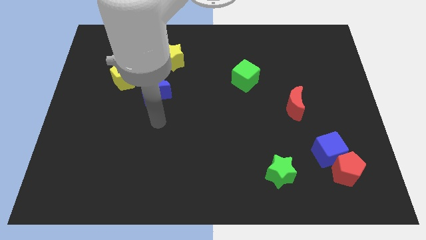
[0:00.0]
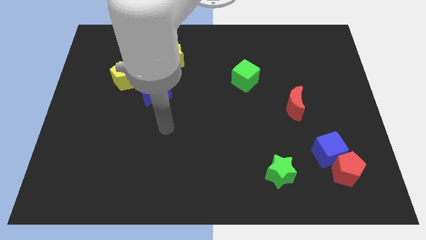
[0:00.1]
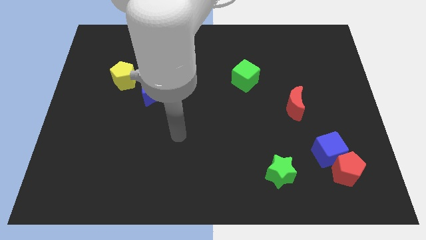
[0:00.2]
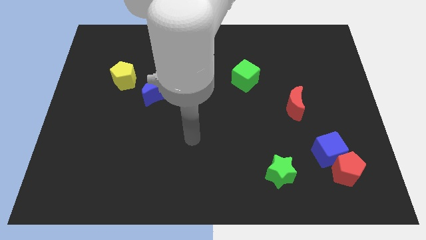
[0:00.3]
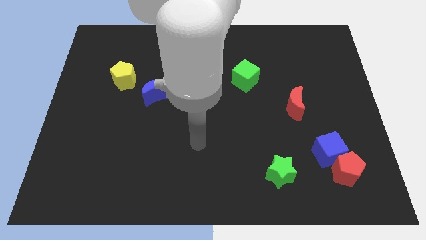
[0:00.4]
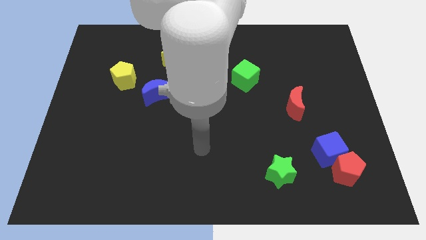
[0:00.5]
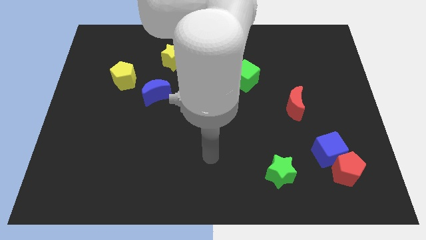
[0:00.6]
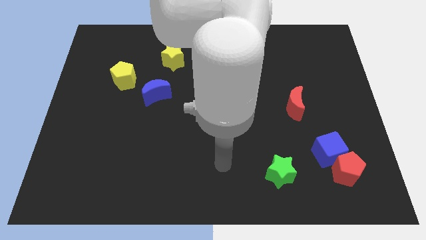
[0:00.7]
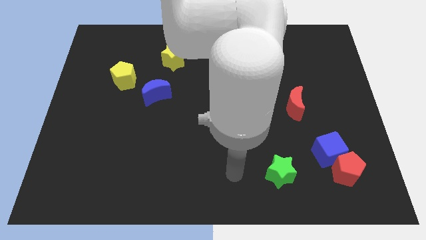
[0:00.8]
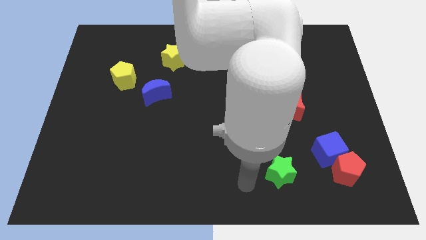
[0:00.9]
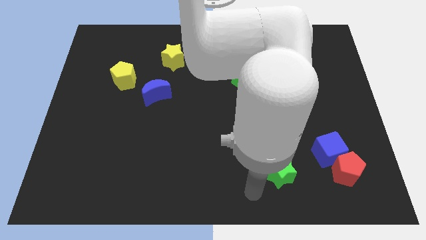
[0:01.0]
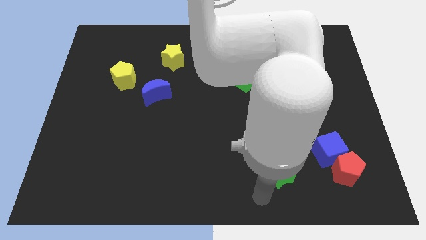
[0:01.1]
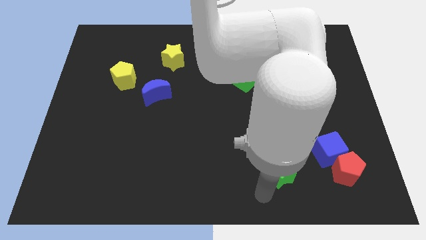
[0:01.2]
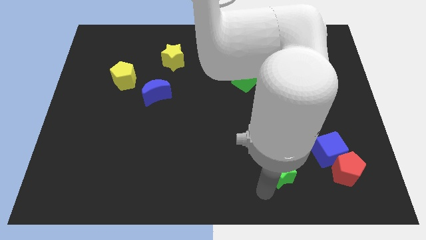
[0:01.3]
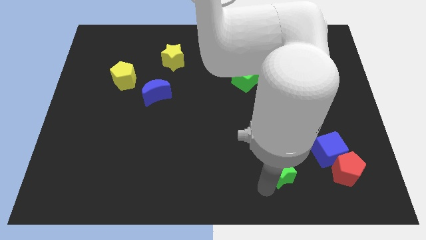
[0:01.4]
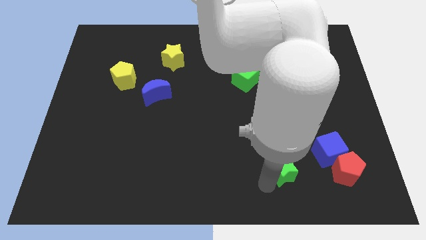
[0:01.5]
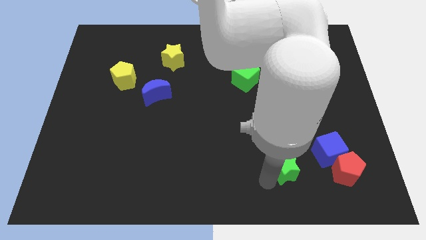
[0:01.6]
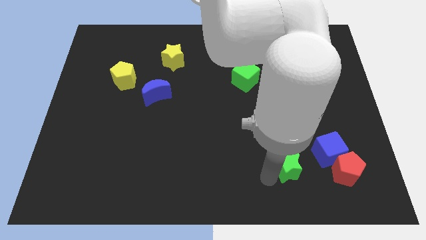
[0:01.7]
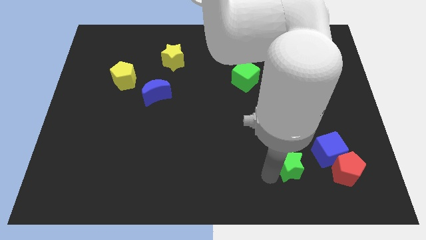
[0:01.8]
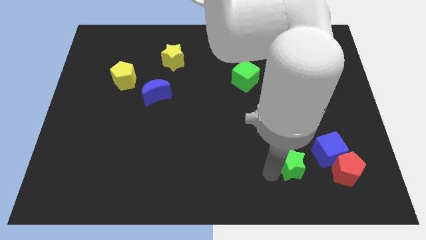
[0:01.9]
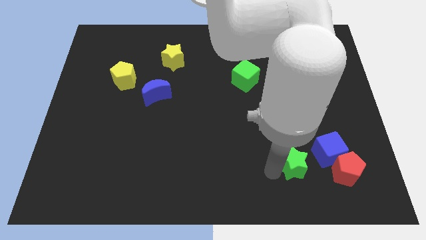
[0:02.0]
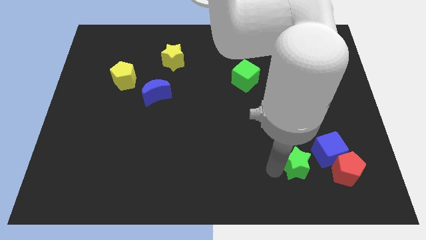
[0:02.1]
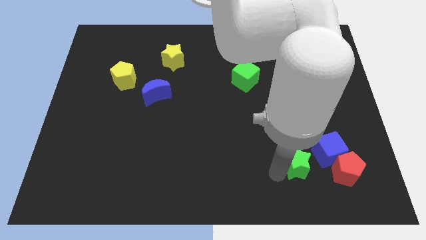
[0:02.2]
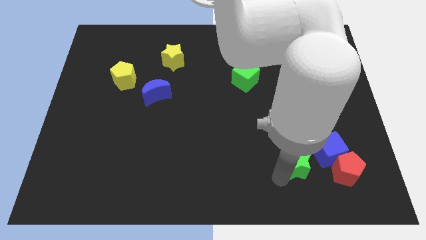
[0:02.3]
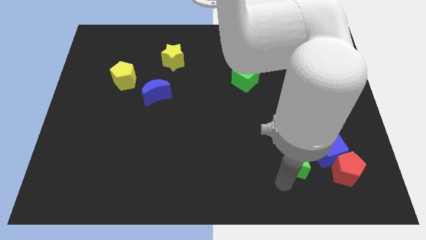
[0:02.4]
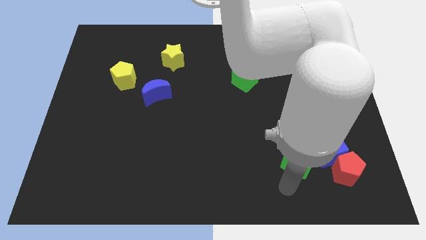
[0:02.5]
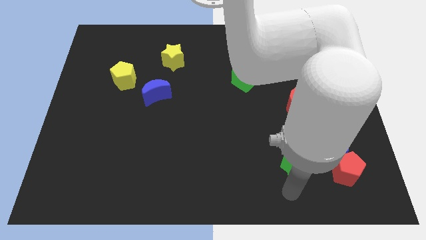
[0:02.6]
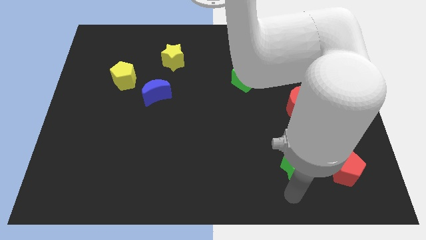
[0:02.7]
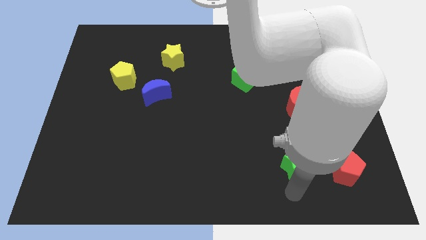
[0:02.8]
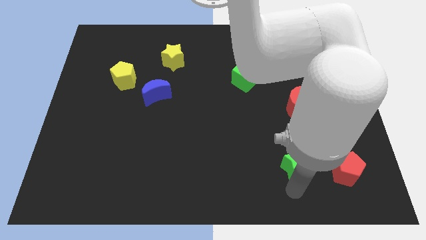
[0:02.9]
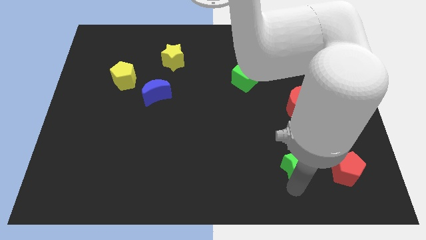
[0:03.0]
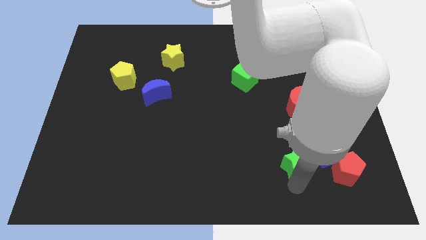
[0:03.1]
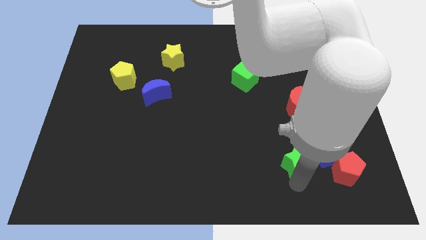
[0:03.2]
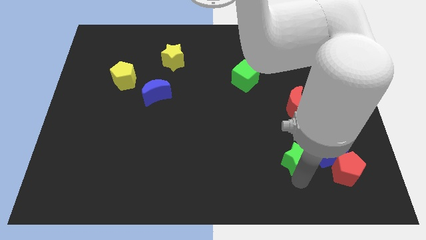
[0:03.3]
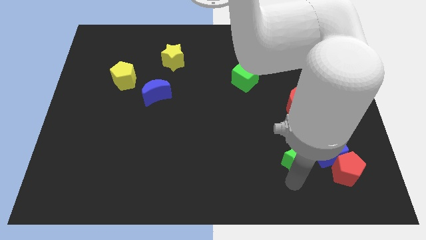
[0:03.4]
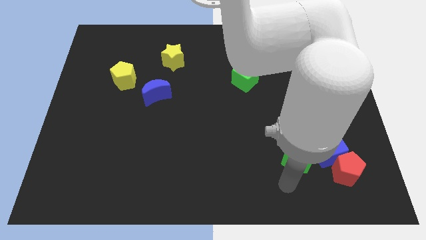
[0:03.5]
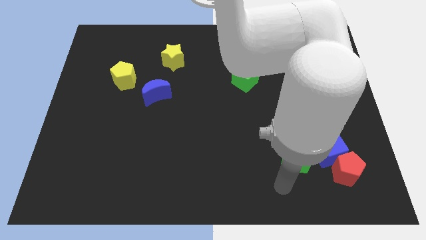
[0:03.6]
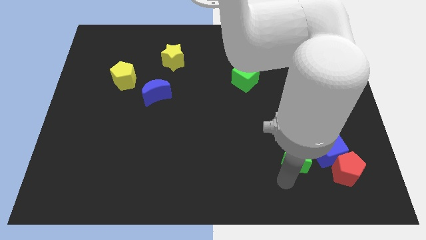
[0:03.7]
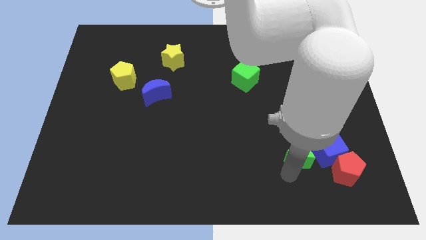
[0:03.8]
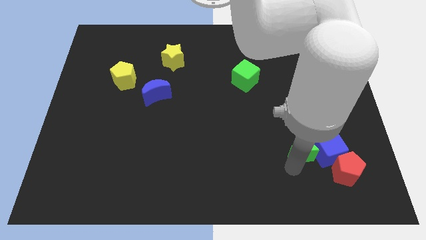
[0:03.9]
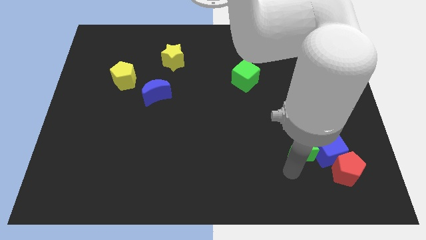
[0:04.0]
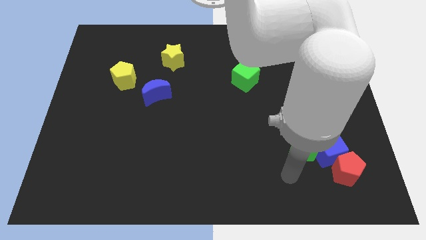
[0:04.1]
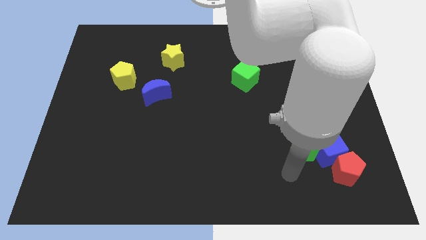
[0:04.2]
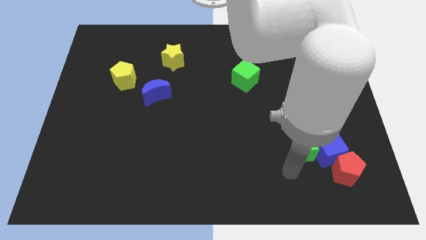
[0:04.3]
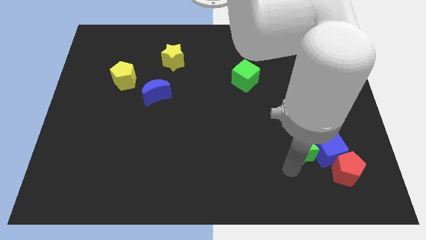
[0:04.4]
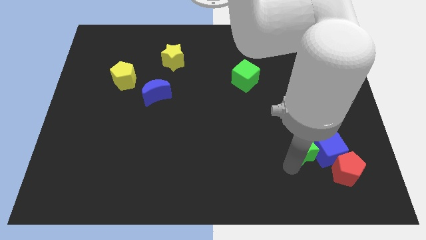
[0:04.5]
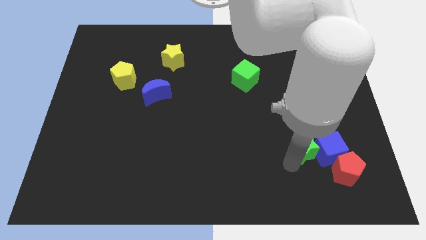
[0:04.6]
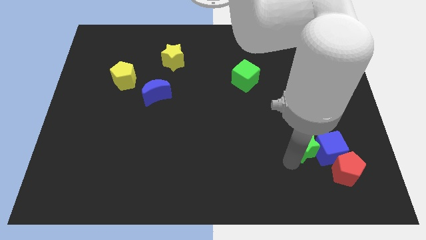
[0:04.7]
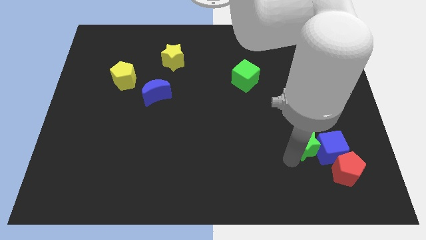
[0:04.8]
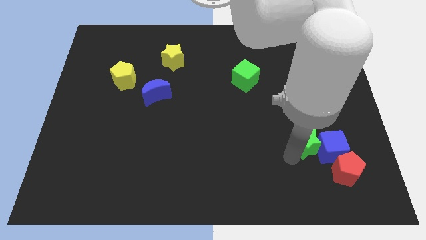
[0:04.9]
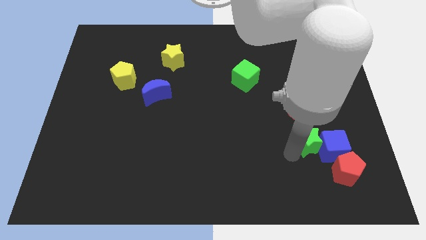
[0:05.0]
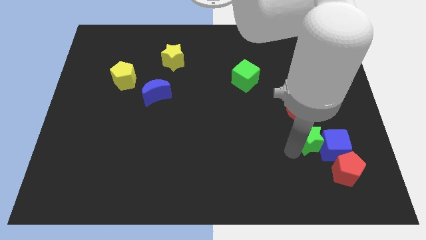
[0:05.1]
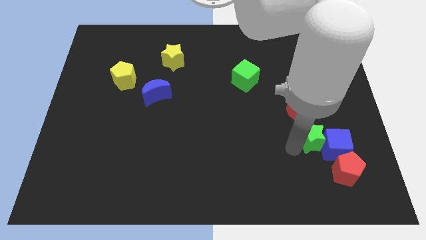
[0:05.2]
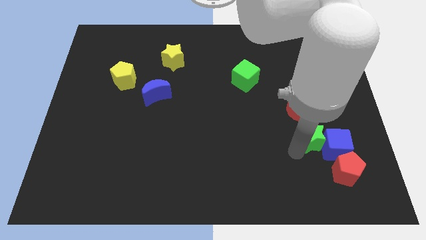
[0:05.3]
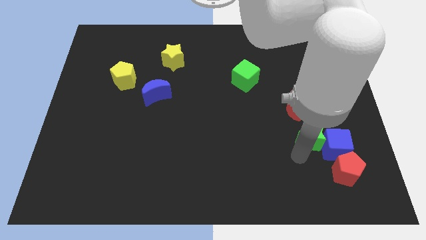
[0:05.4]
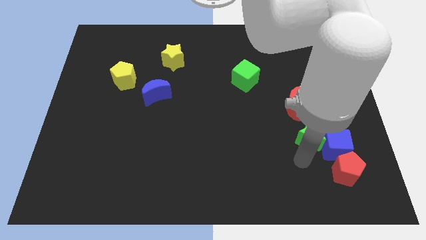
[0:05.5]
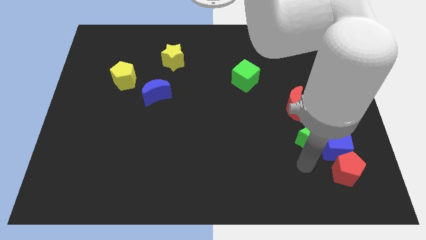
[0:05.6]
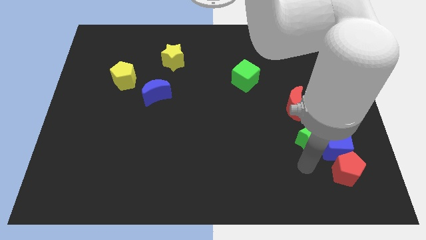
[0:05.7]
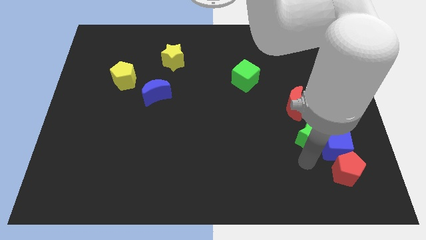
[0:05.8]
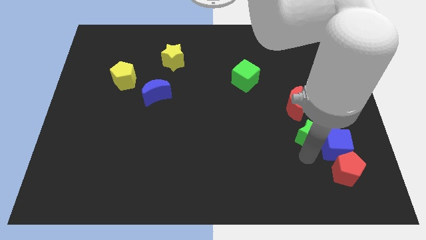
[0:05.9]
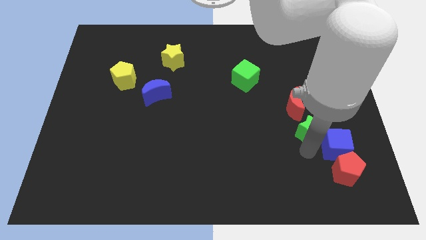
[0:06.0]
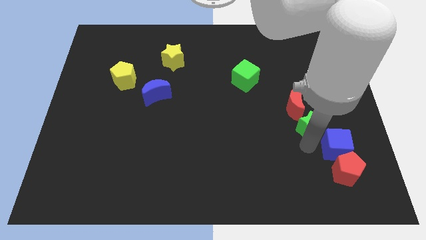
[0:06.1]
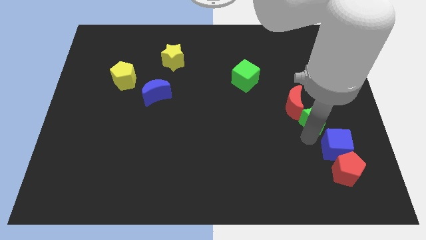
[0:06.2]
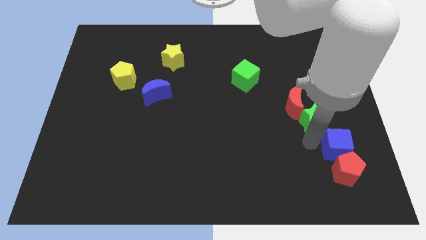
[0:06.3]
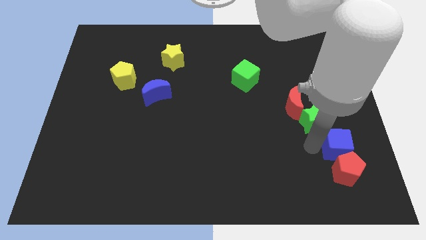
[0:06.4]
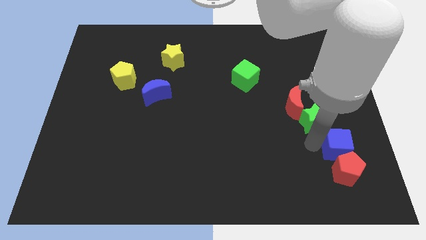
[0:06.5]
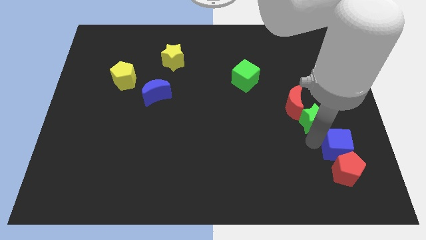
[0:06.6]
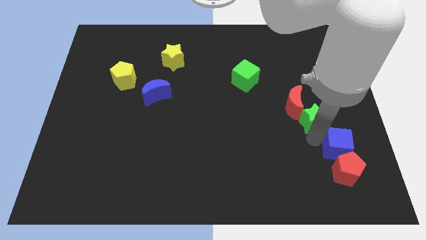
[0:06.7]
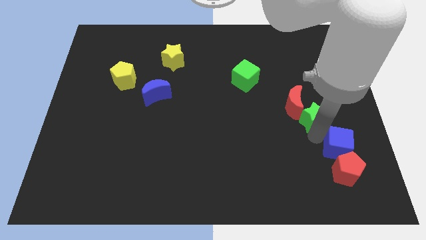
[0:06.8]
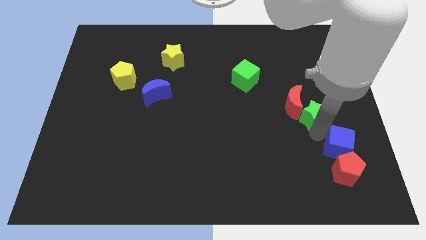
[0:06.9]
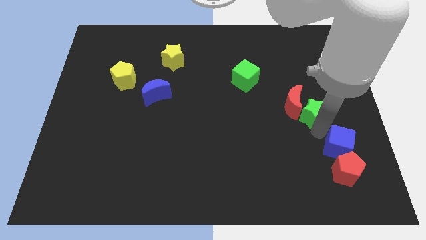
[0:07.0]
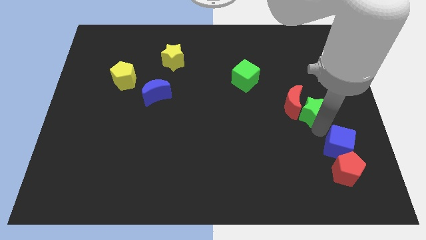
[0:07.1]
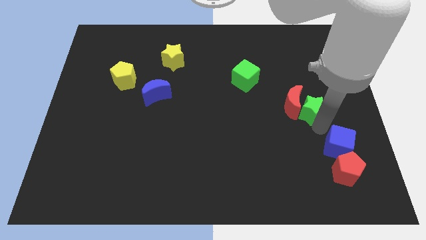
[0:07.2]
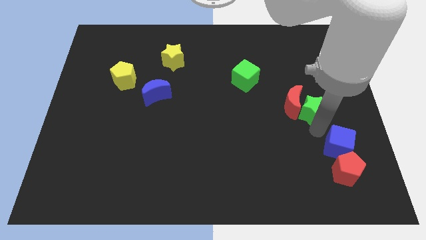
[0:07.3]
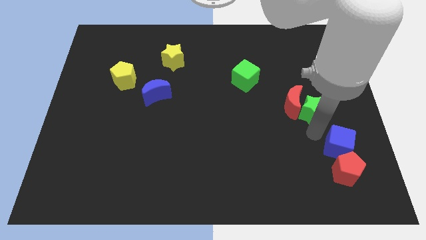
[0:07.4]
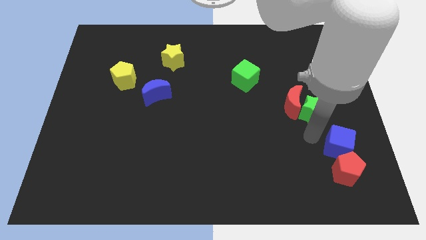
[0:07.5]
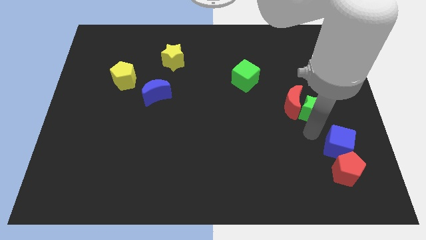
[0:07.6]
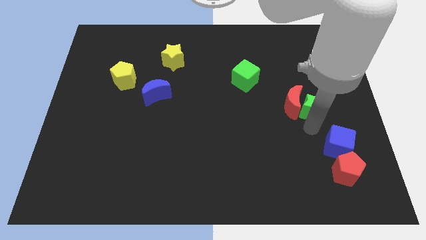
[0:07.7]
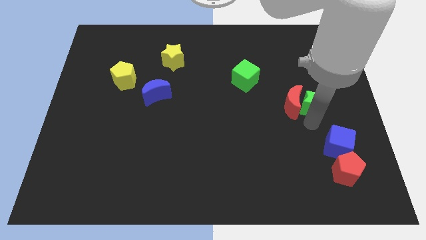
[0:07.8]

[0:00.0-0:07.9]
move the green star diagonally up and to the right of the red moon
